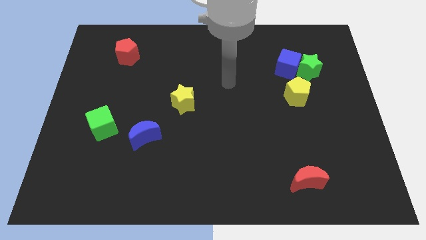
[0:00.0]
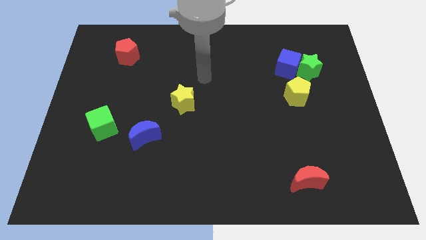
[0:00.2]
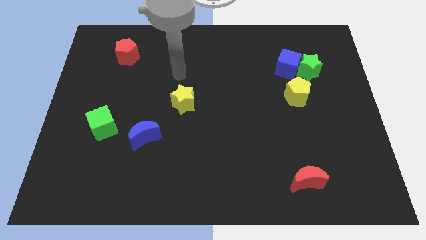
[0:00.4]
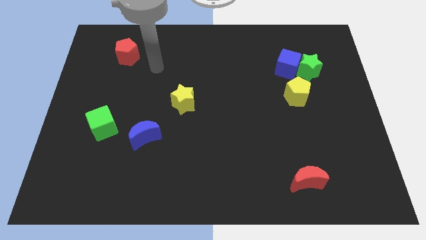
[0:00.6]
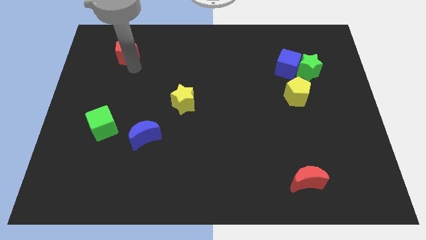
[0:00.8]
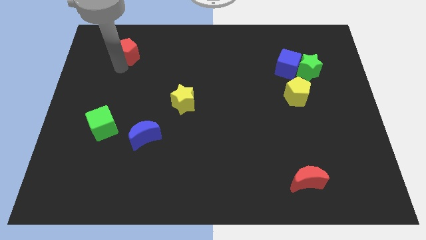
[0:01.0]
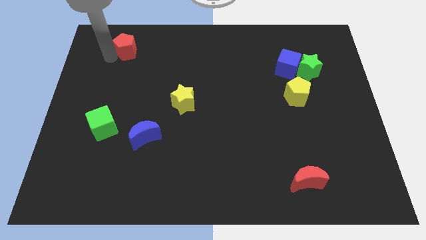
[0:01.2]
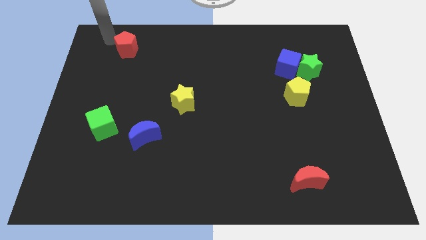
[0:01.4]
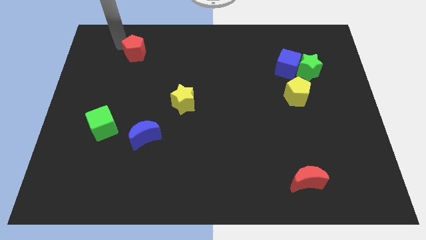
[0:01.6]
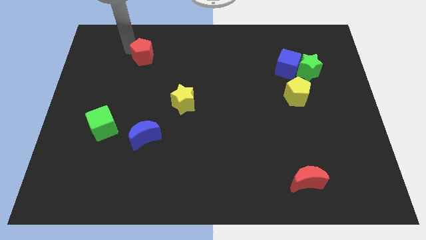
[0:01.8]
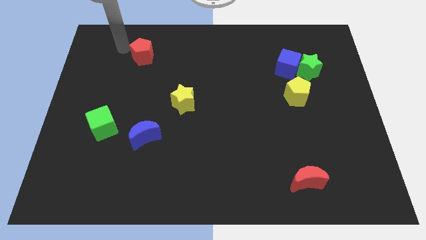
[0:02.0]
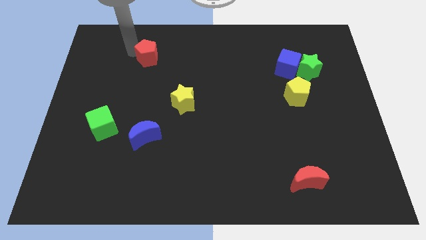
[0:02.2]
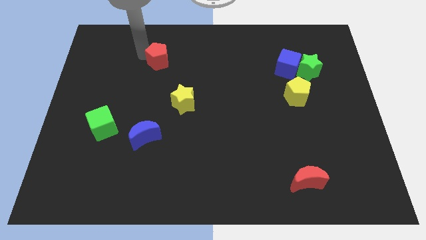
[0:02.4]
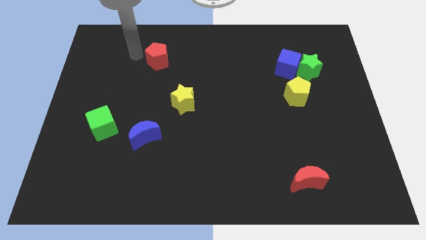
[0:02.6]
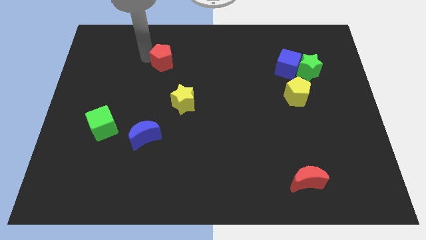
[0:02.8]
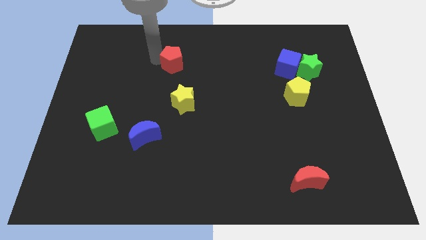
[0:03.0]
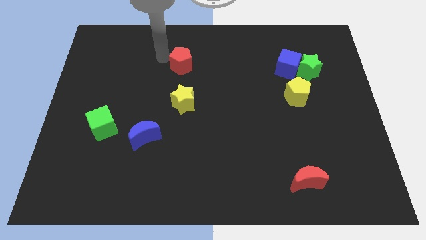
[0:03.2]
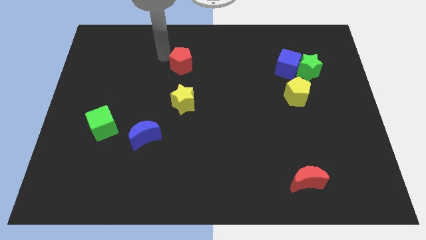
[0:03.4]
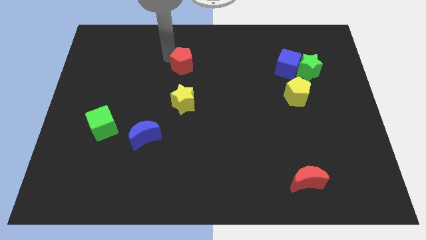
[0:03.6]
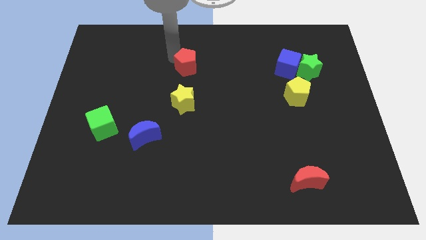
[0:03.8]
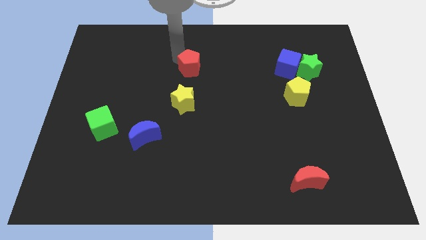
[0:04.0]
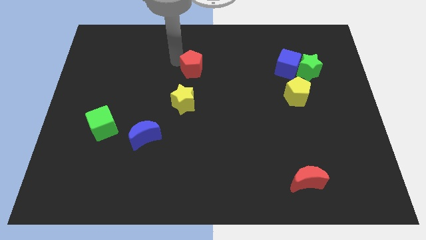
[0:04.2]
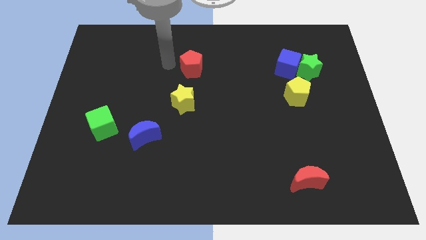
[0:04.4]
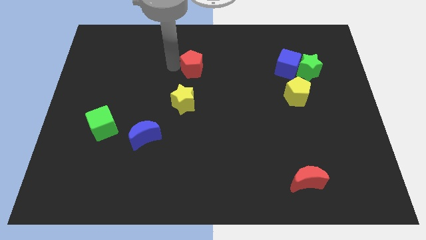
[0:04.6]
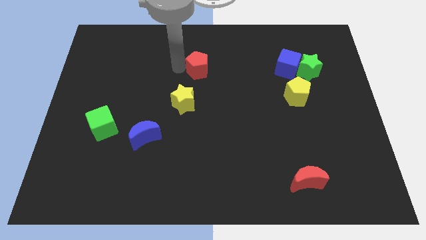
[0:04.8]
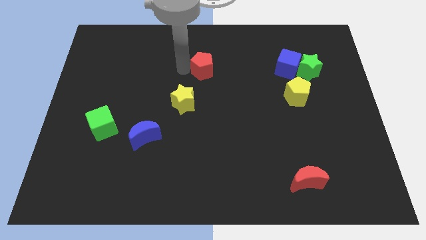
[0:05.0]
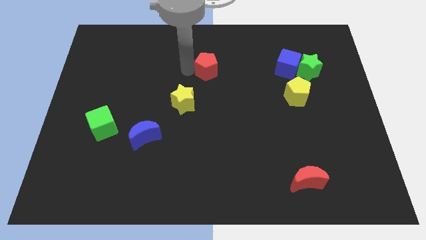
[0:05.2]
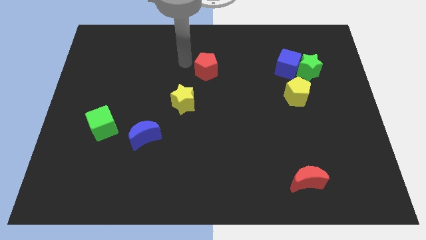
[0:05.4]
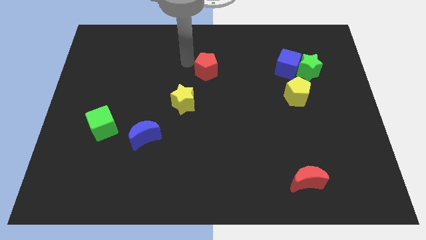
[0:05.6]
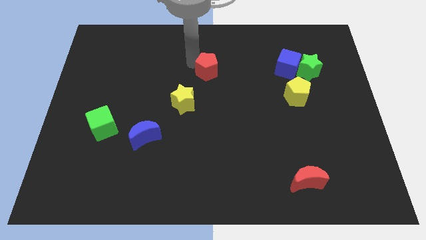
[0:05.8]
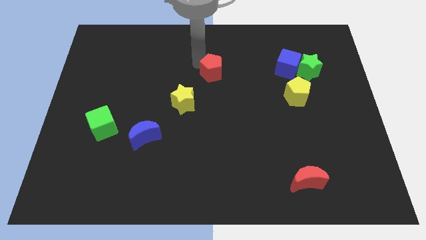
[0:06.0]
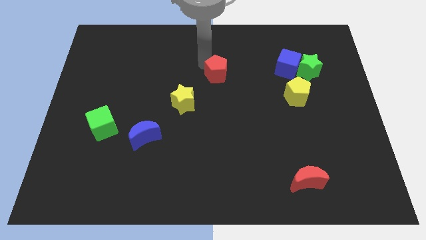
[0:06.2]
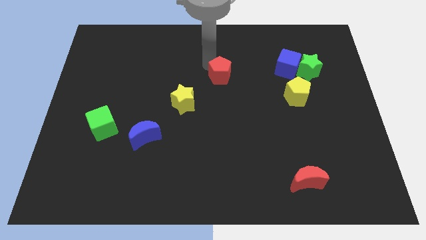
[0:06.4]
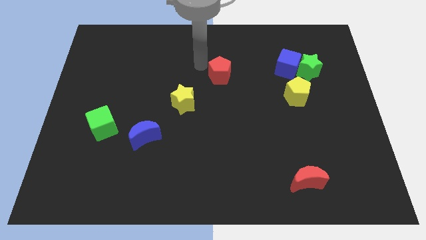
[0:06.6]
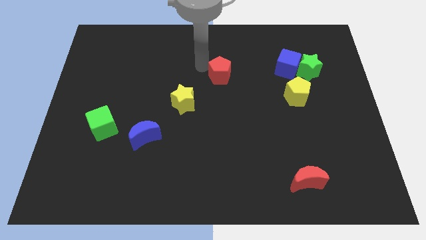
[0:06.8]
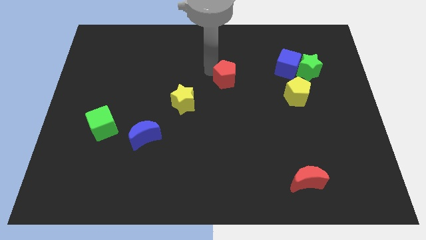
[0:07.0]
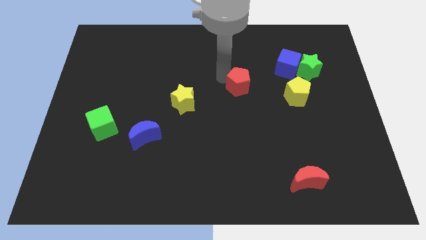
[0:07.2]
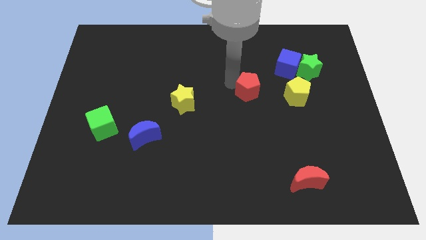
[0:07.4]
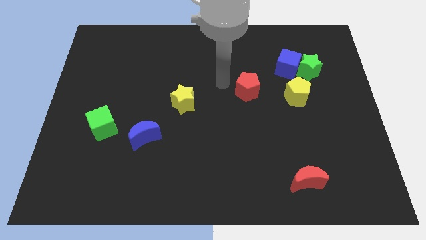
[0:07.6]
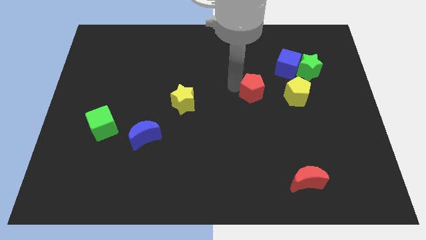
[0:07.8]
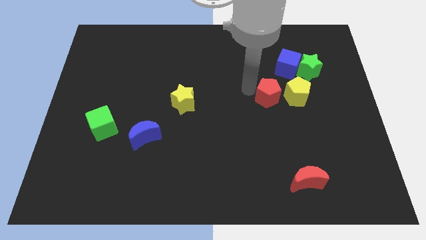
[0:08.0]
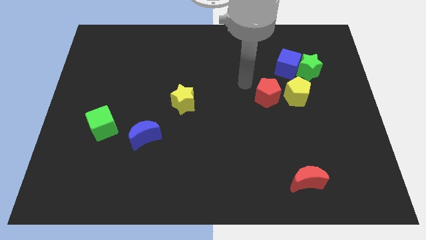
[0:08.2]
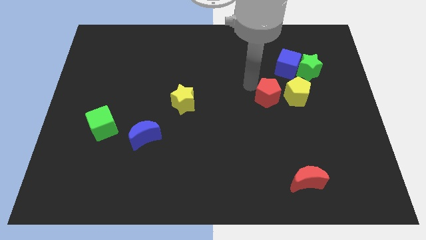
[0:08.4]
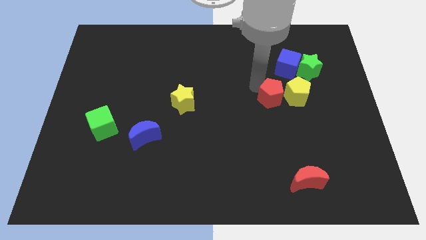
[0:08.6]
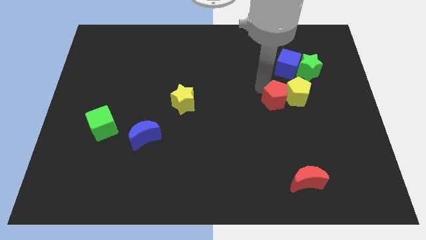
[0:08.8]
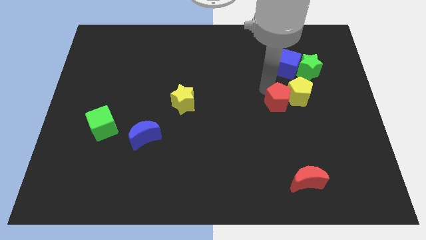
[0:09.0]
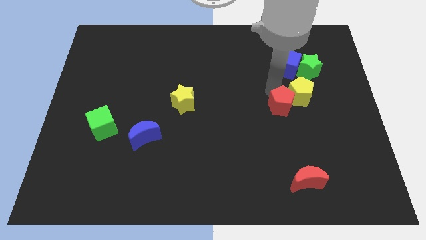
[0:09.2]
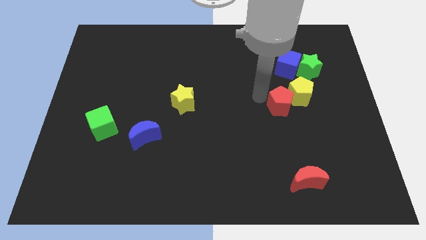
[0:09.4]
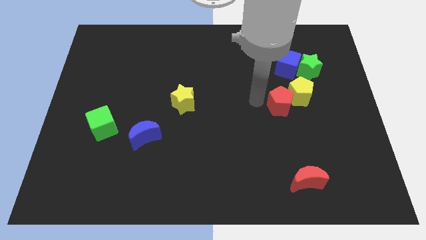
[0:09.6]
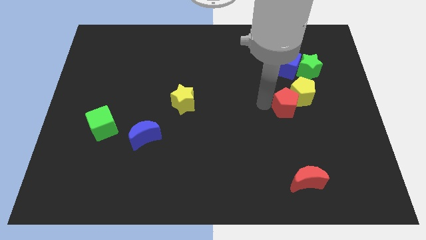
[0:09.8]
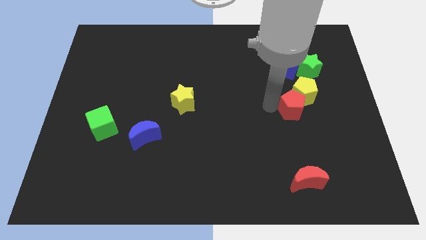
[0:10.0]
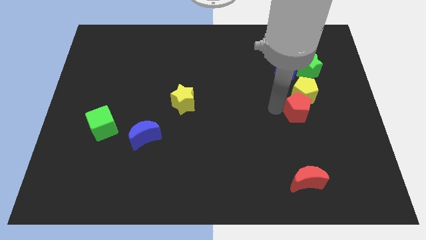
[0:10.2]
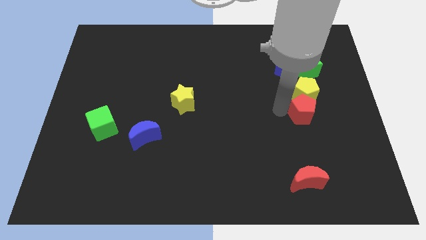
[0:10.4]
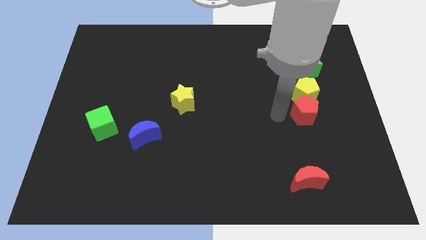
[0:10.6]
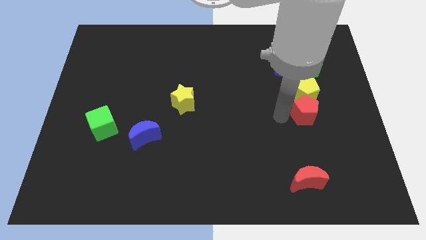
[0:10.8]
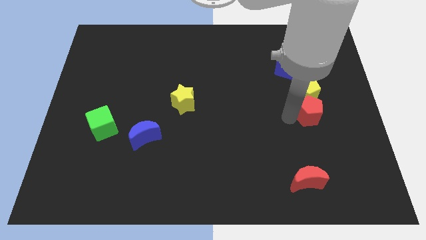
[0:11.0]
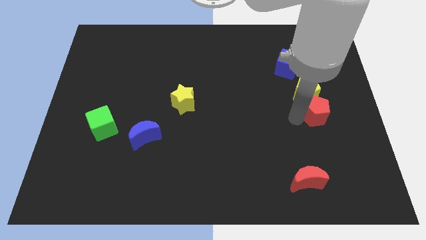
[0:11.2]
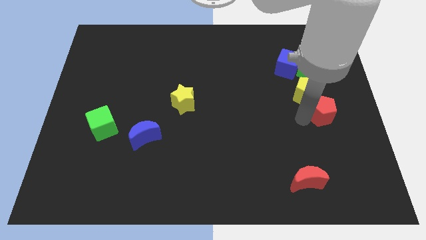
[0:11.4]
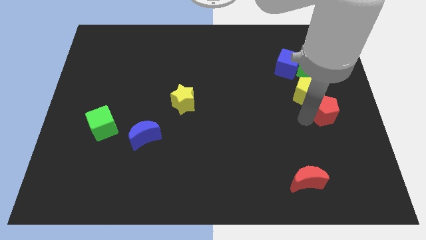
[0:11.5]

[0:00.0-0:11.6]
put the red pentagon to the right side of the board

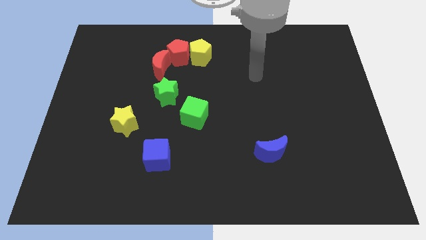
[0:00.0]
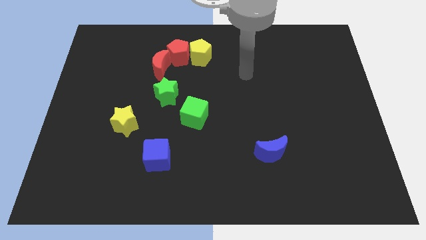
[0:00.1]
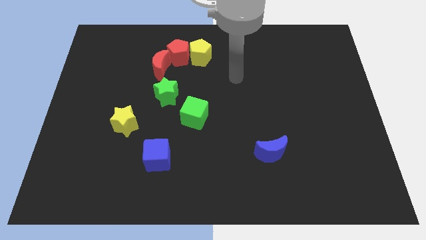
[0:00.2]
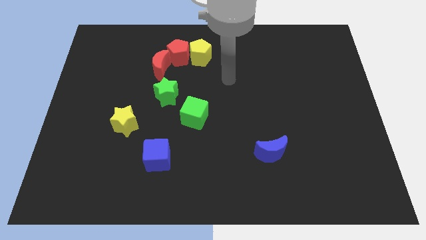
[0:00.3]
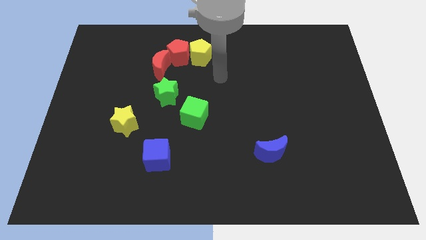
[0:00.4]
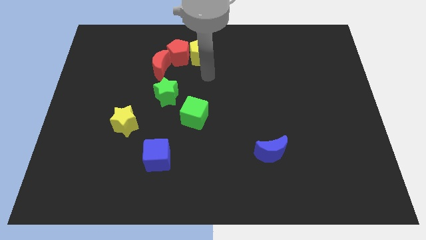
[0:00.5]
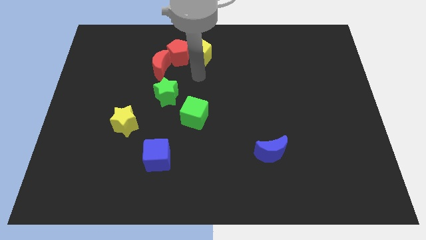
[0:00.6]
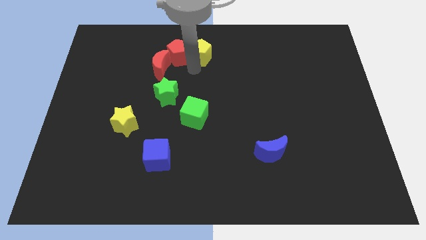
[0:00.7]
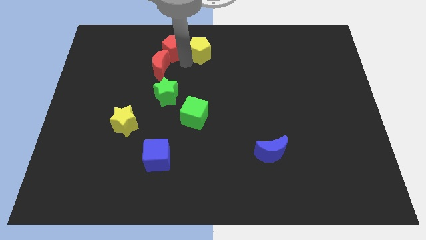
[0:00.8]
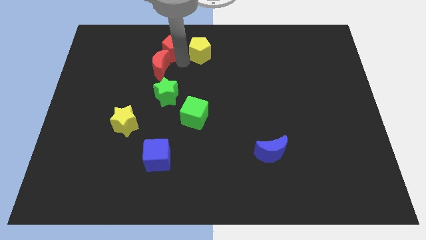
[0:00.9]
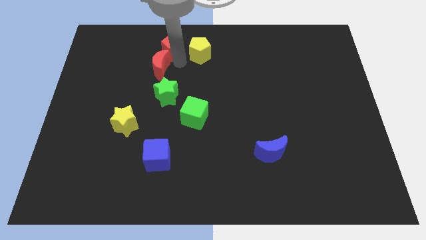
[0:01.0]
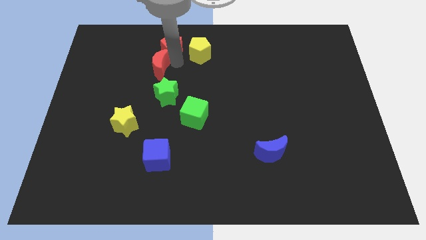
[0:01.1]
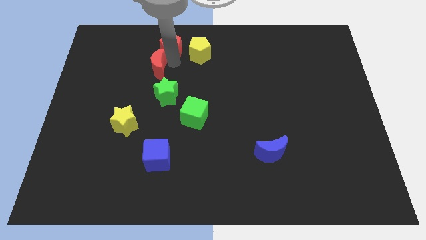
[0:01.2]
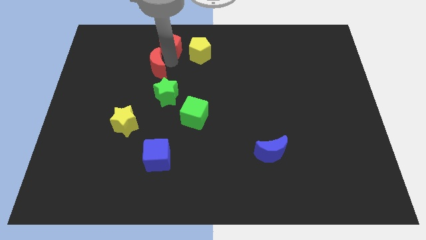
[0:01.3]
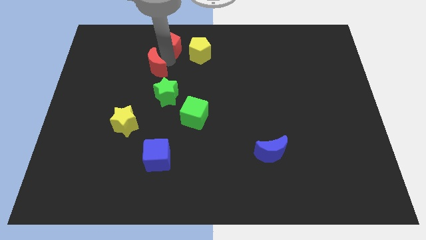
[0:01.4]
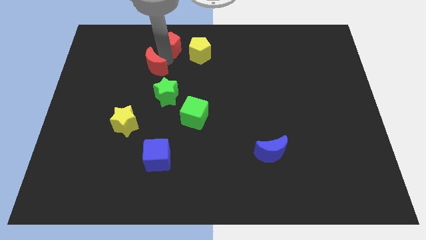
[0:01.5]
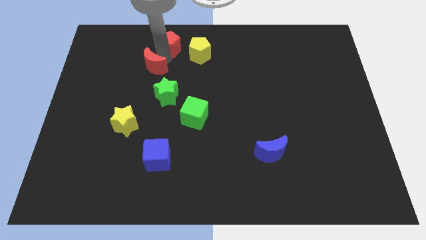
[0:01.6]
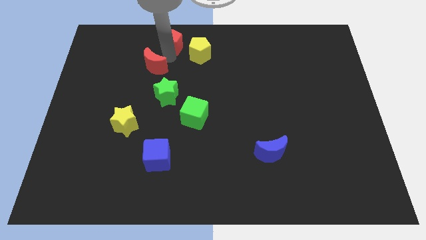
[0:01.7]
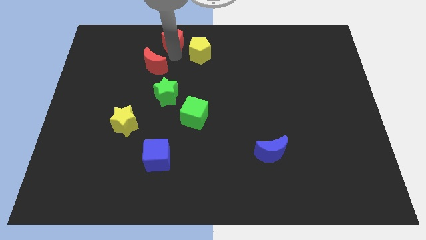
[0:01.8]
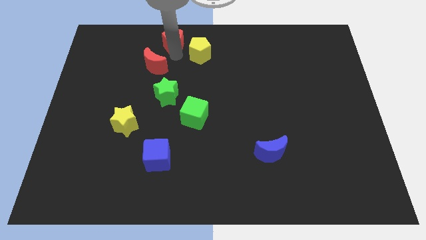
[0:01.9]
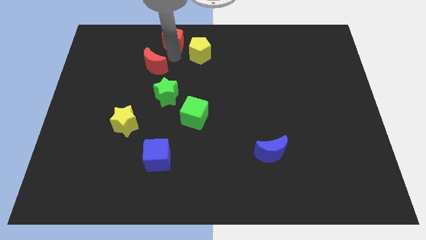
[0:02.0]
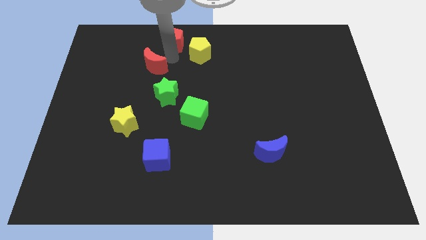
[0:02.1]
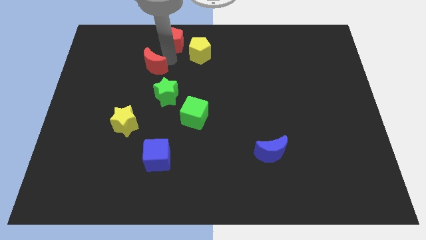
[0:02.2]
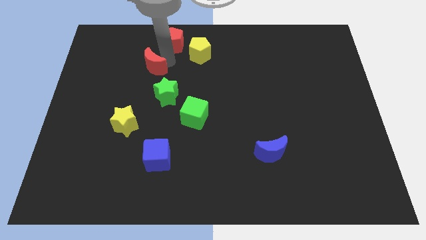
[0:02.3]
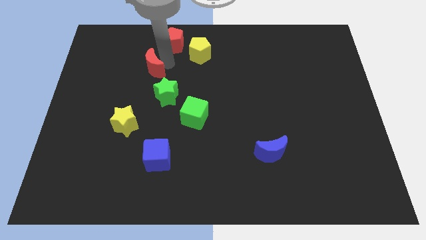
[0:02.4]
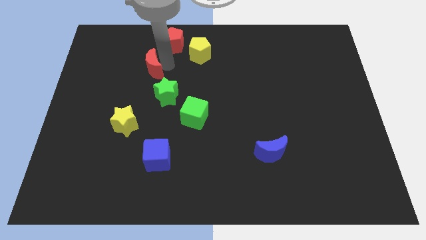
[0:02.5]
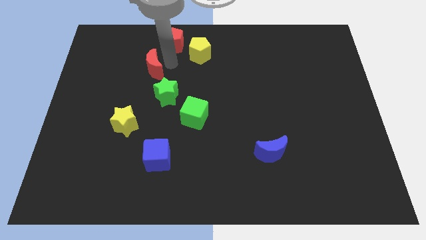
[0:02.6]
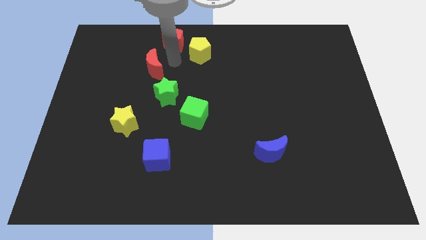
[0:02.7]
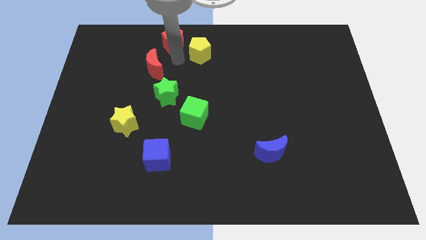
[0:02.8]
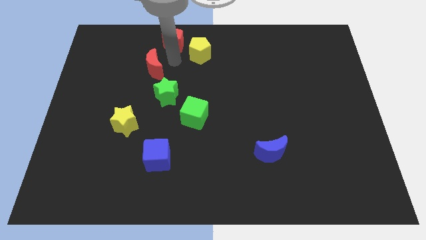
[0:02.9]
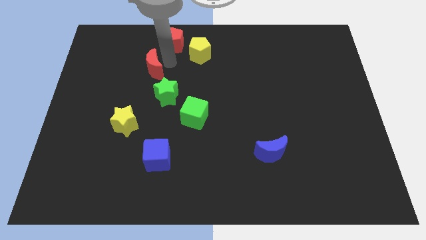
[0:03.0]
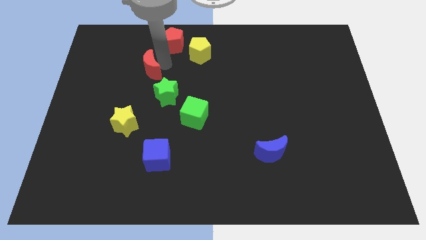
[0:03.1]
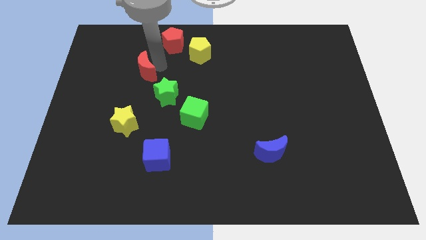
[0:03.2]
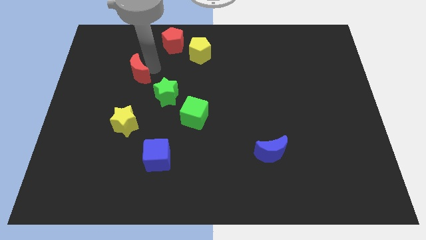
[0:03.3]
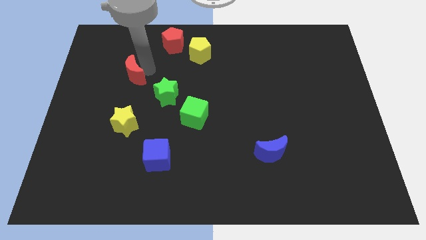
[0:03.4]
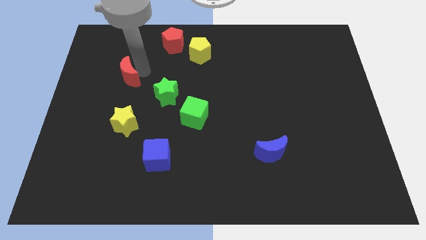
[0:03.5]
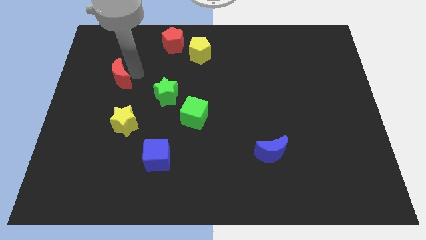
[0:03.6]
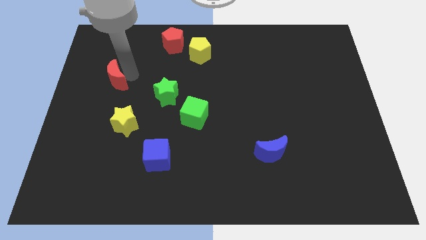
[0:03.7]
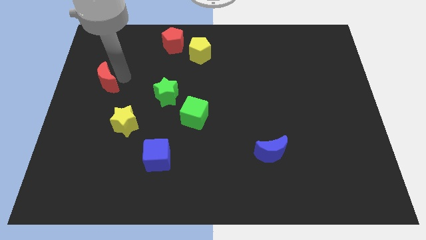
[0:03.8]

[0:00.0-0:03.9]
move the red moon to the center left
